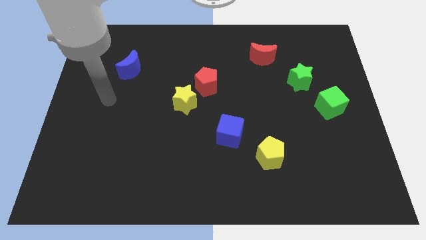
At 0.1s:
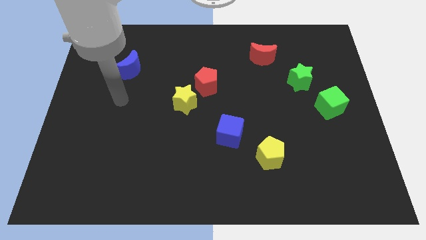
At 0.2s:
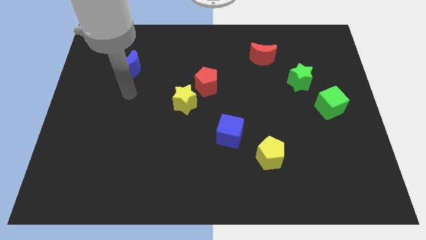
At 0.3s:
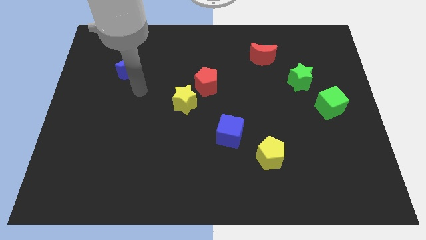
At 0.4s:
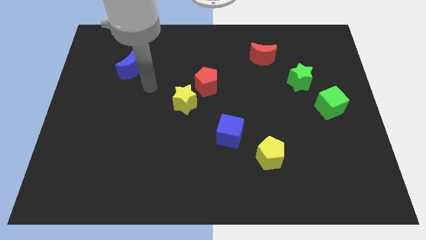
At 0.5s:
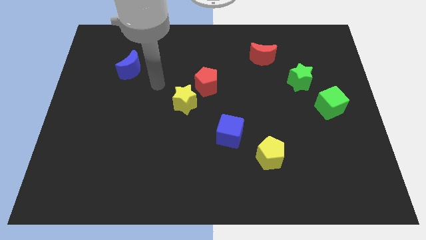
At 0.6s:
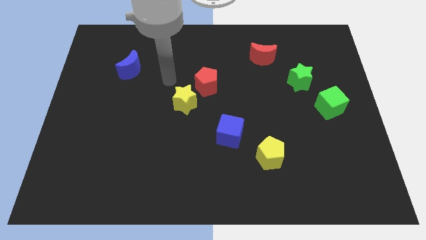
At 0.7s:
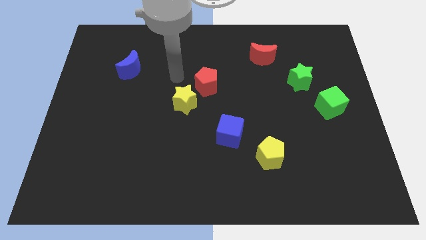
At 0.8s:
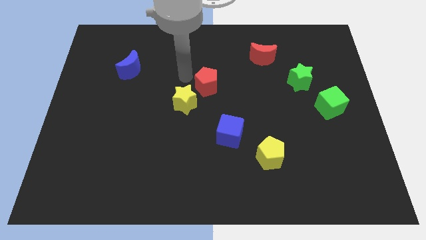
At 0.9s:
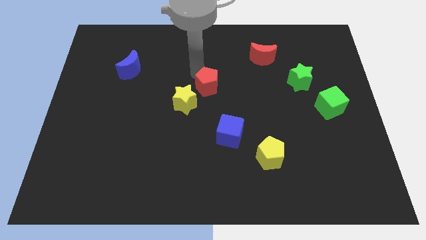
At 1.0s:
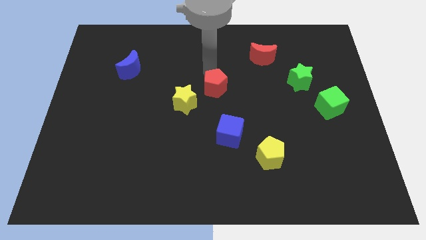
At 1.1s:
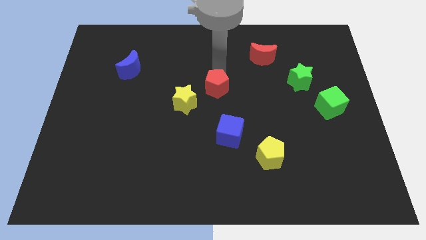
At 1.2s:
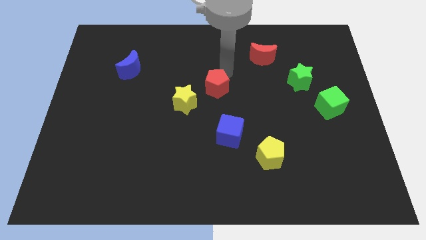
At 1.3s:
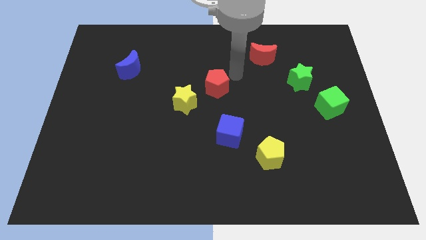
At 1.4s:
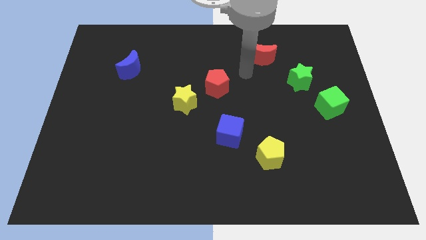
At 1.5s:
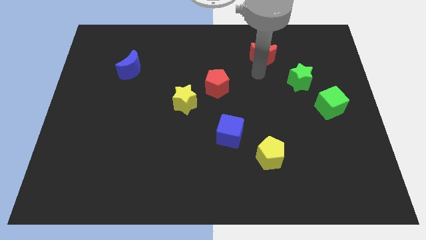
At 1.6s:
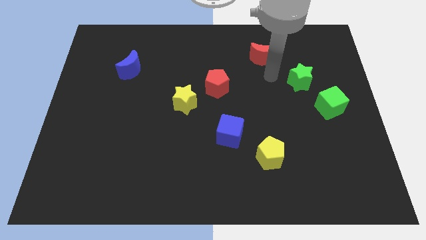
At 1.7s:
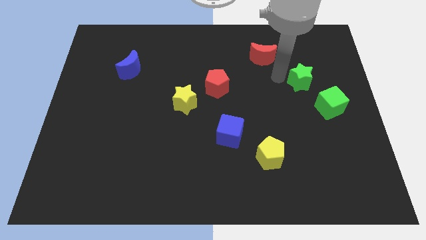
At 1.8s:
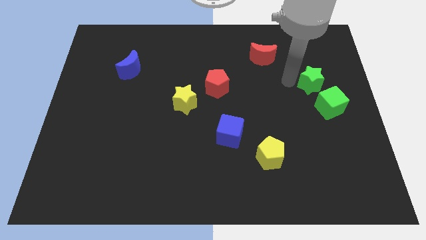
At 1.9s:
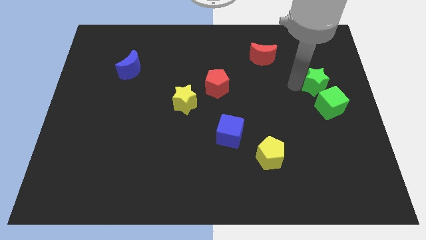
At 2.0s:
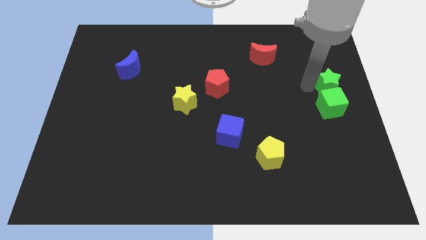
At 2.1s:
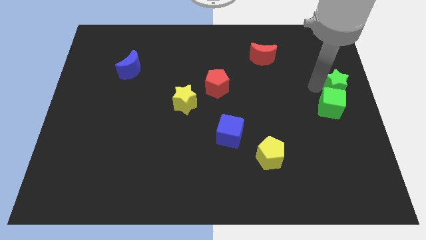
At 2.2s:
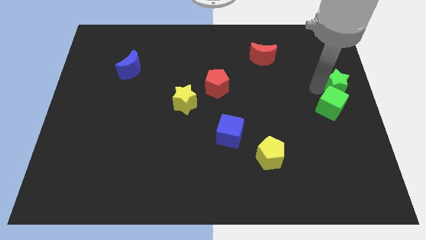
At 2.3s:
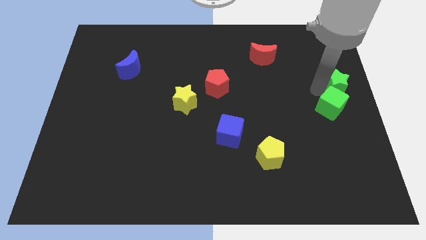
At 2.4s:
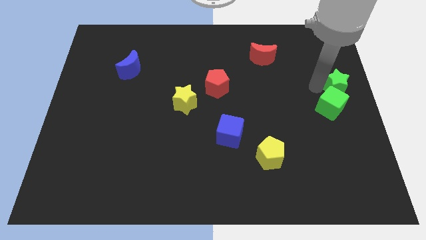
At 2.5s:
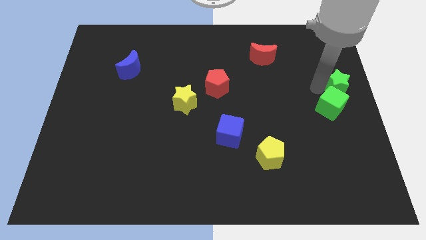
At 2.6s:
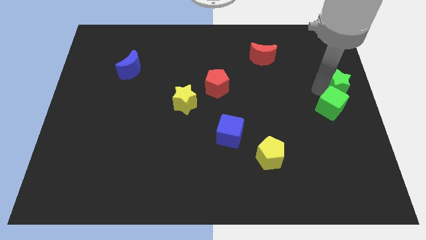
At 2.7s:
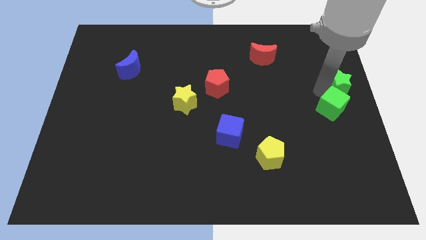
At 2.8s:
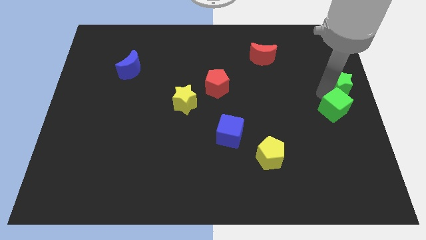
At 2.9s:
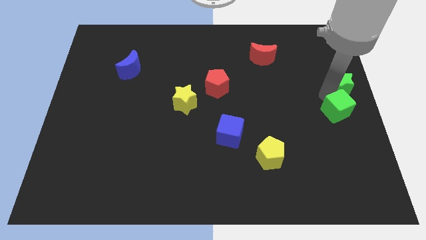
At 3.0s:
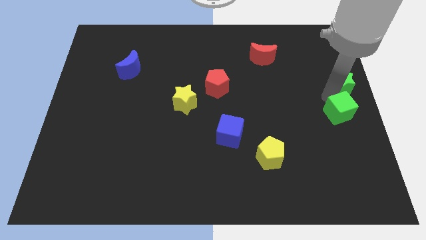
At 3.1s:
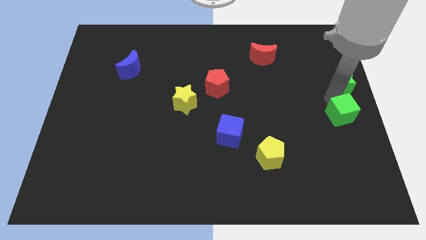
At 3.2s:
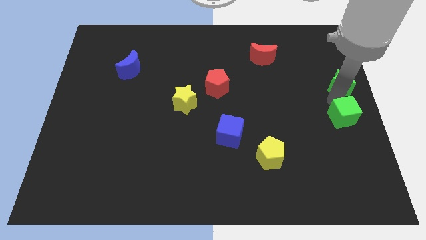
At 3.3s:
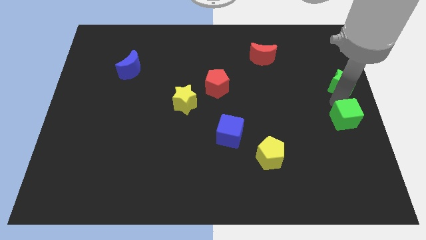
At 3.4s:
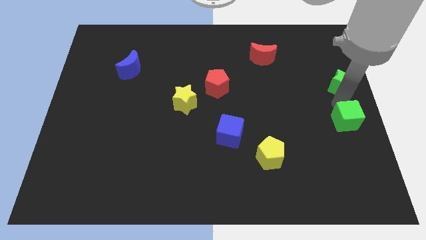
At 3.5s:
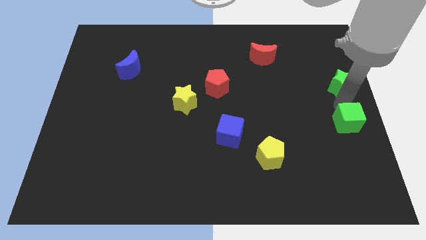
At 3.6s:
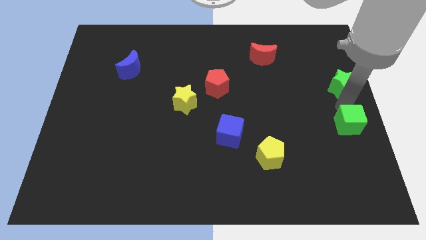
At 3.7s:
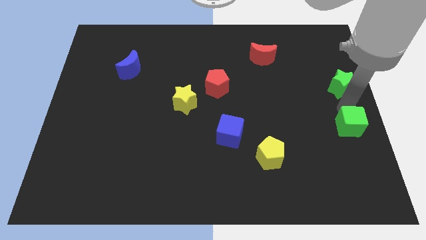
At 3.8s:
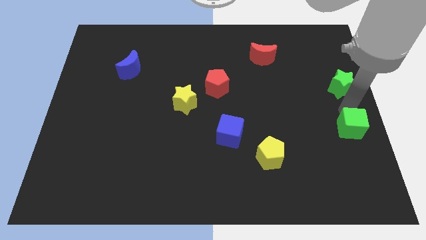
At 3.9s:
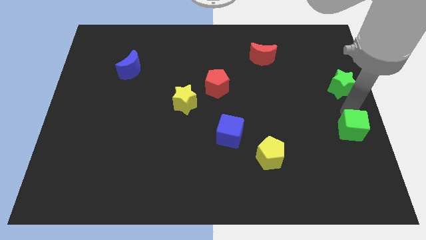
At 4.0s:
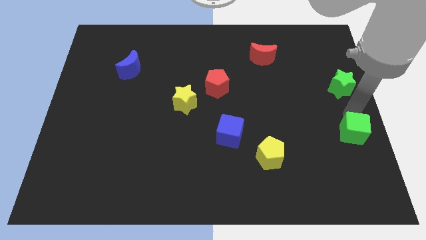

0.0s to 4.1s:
slide the green cube down a little

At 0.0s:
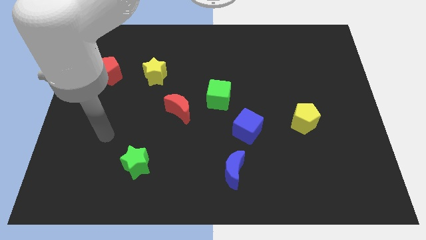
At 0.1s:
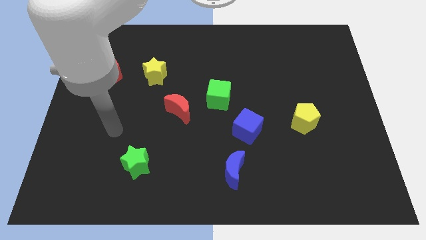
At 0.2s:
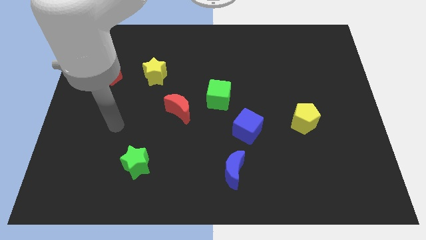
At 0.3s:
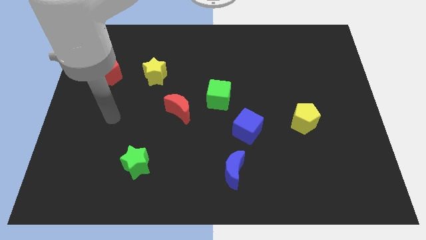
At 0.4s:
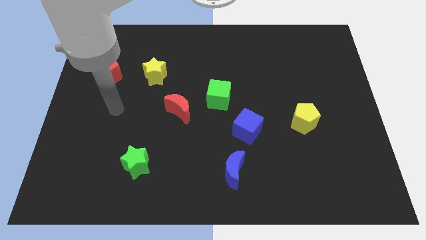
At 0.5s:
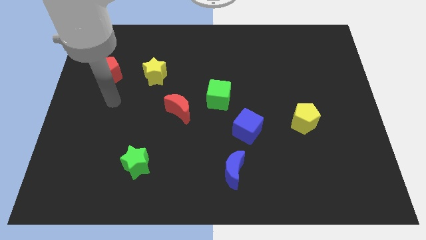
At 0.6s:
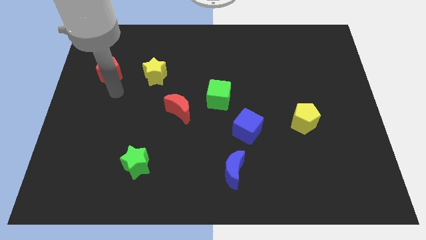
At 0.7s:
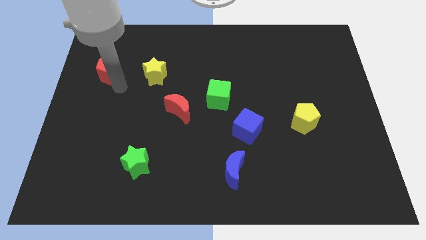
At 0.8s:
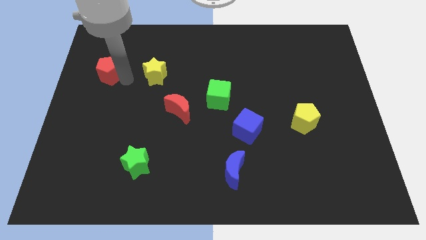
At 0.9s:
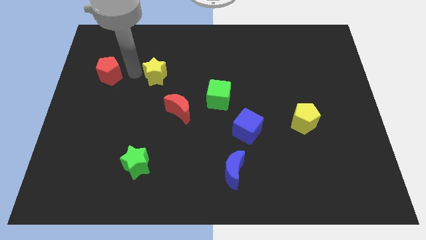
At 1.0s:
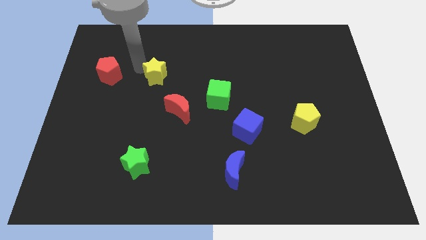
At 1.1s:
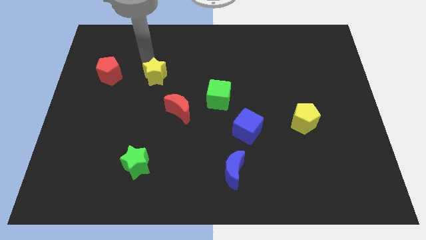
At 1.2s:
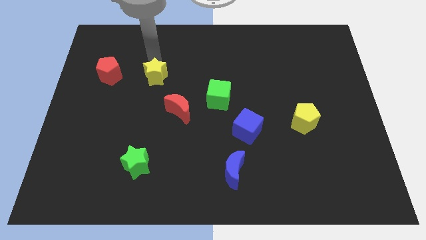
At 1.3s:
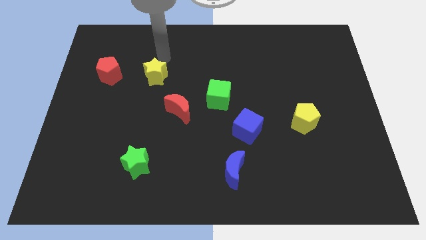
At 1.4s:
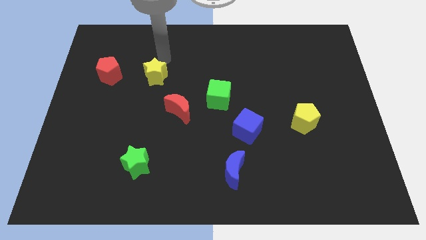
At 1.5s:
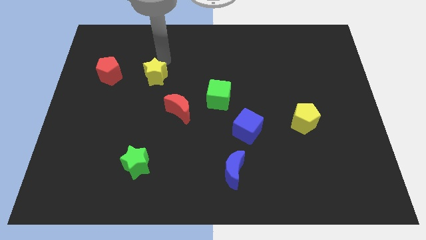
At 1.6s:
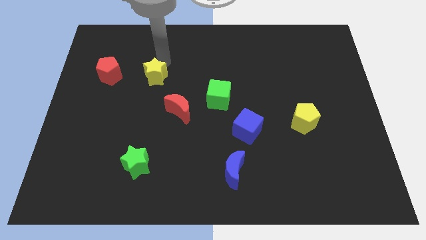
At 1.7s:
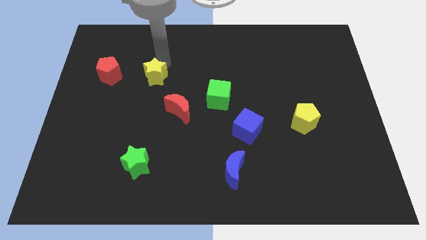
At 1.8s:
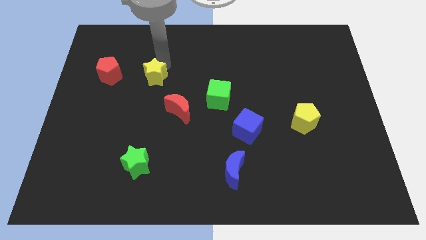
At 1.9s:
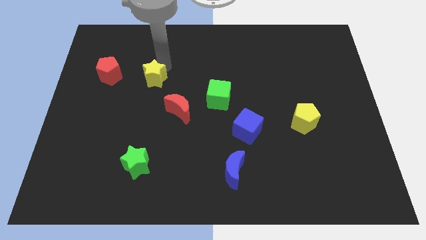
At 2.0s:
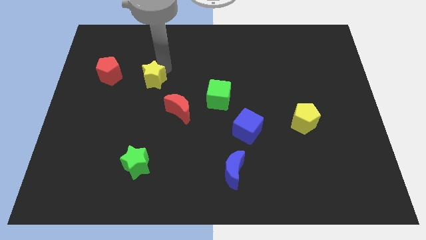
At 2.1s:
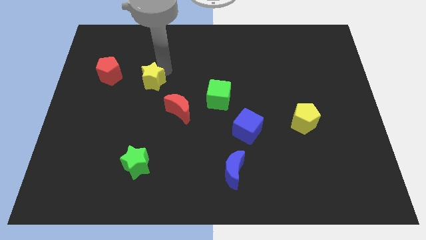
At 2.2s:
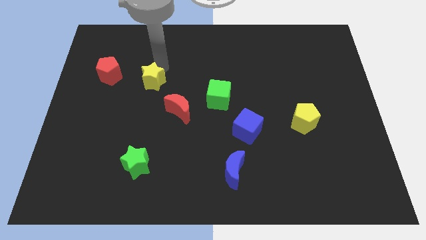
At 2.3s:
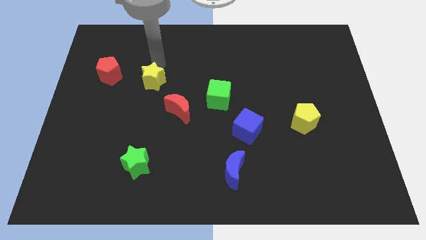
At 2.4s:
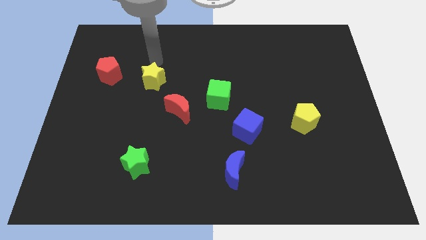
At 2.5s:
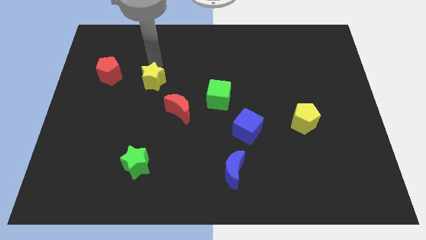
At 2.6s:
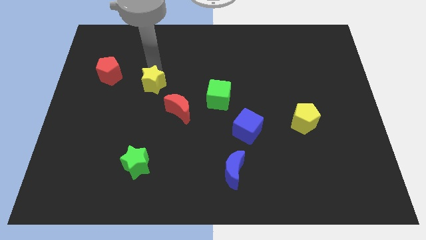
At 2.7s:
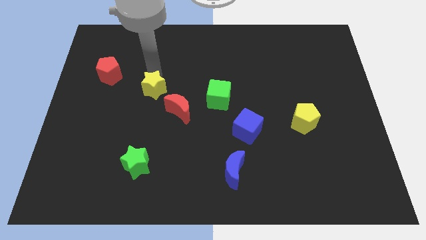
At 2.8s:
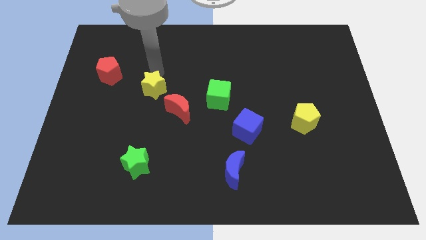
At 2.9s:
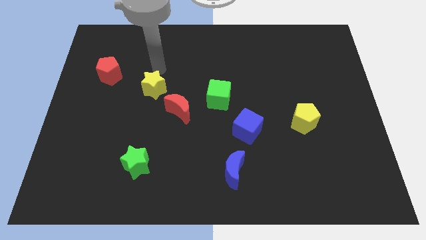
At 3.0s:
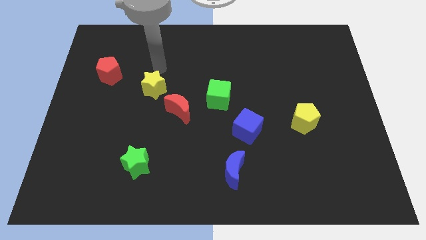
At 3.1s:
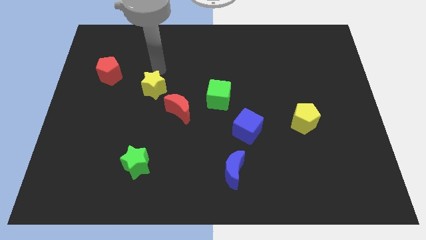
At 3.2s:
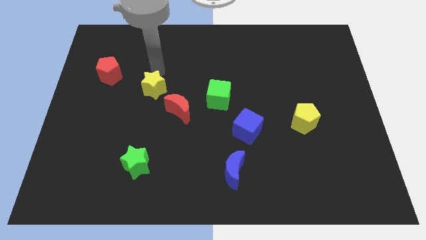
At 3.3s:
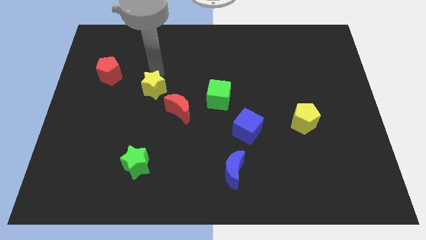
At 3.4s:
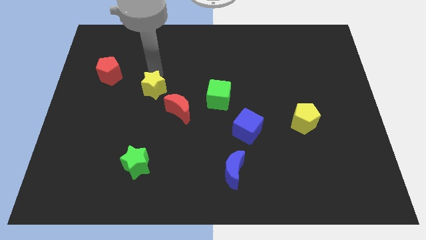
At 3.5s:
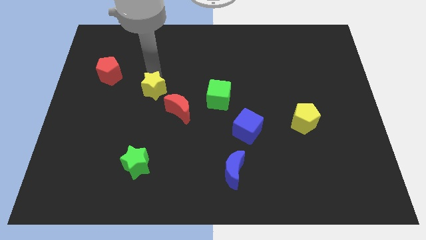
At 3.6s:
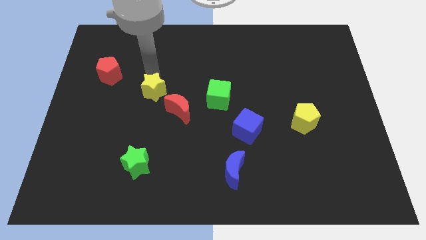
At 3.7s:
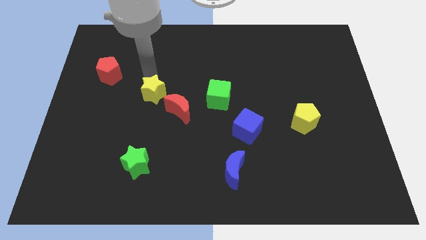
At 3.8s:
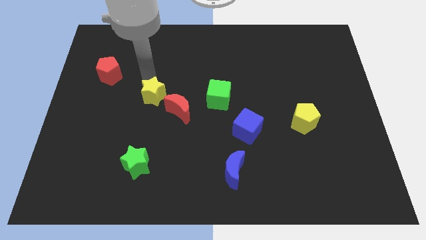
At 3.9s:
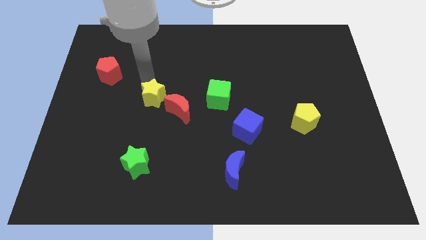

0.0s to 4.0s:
slightly slide the yellow star downwards
